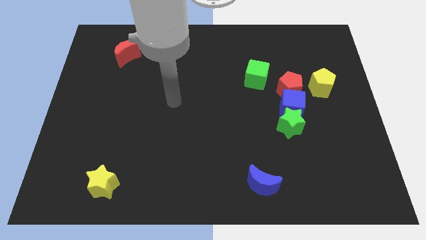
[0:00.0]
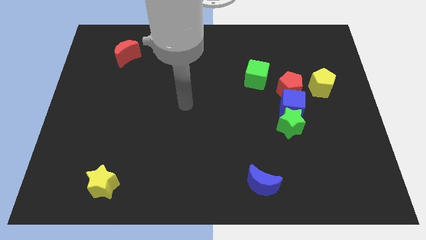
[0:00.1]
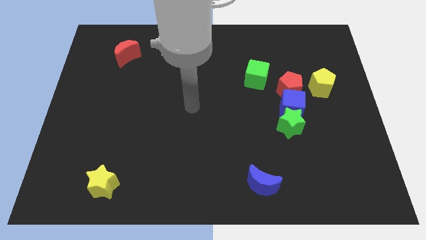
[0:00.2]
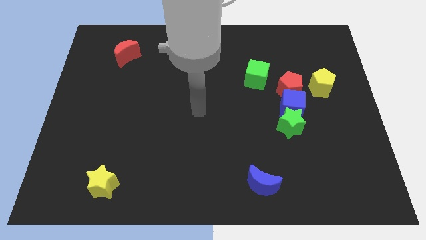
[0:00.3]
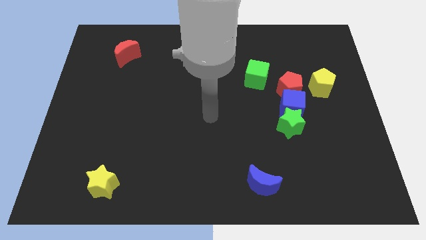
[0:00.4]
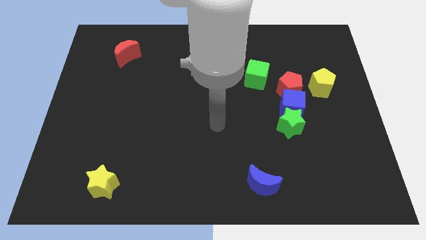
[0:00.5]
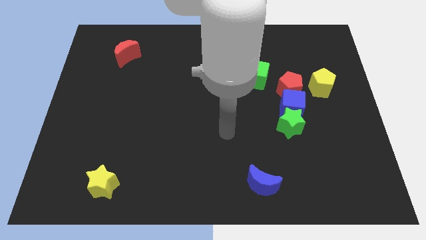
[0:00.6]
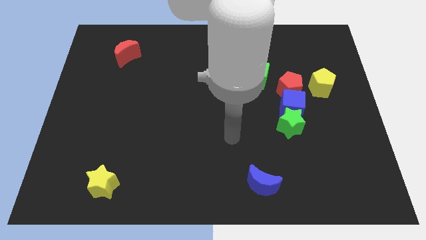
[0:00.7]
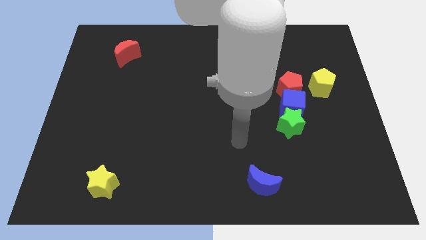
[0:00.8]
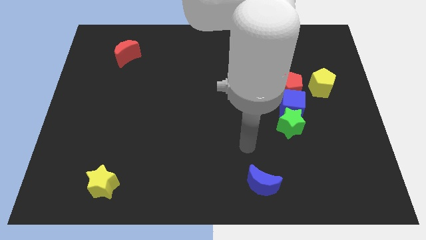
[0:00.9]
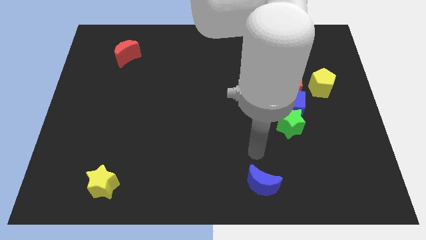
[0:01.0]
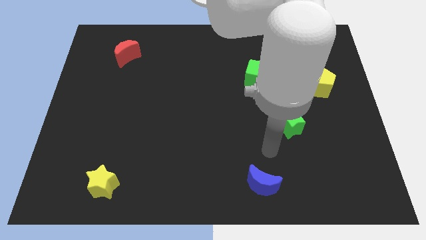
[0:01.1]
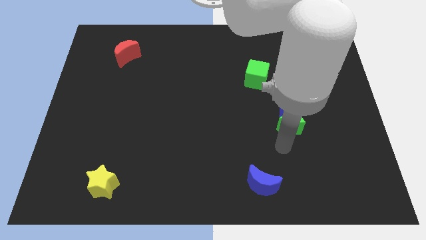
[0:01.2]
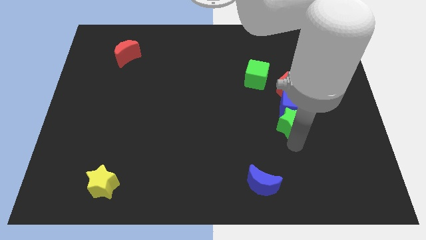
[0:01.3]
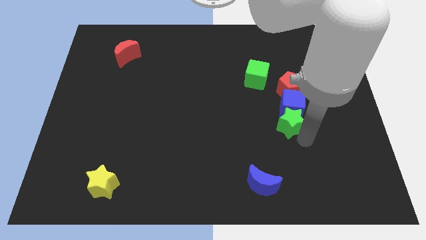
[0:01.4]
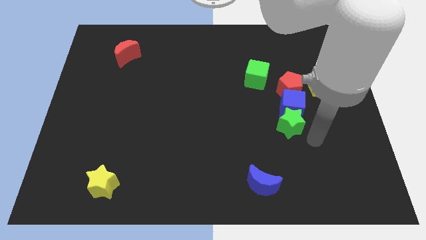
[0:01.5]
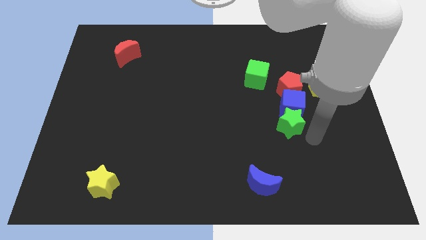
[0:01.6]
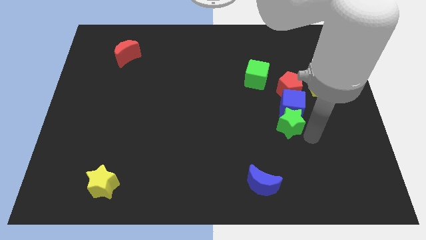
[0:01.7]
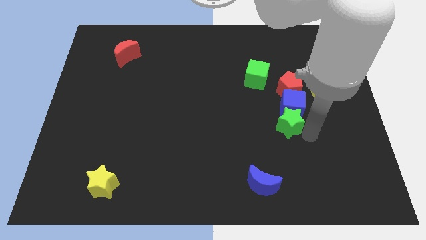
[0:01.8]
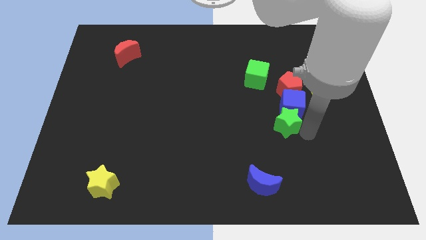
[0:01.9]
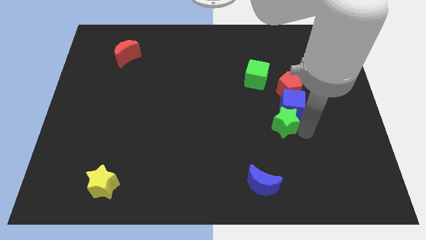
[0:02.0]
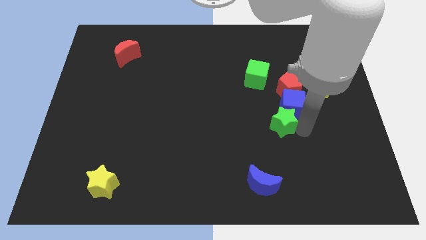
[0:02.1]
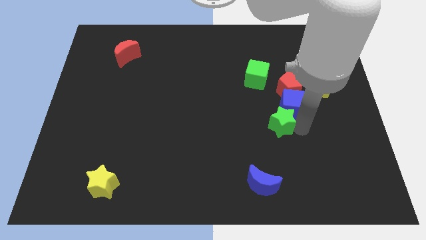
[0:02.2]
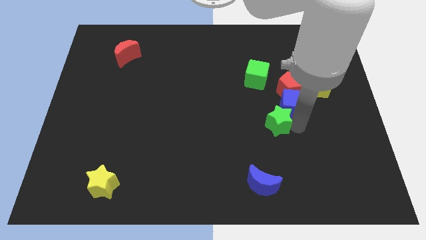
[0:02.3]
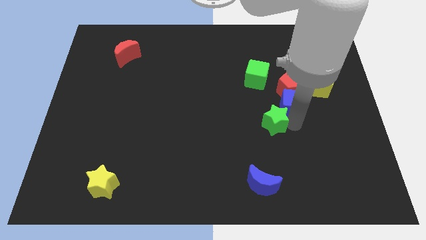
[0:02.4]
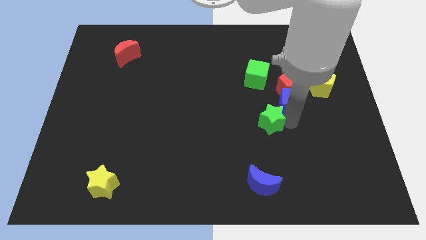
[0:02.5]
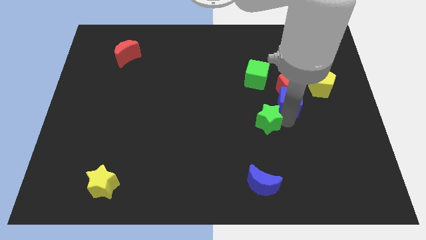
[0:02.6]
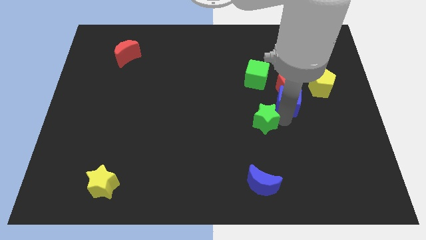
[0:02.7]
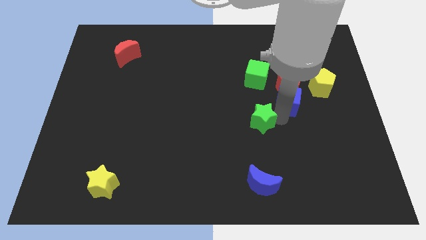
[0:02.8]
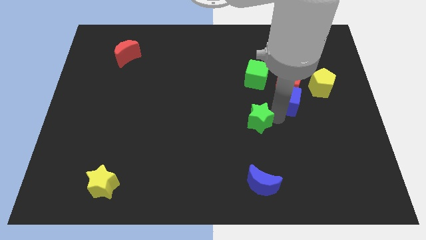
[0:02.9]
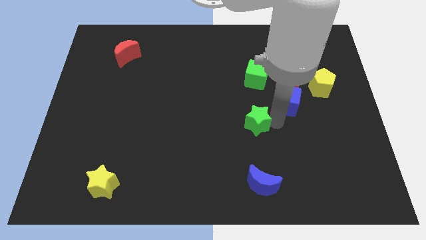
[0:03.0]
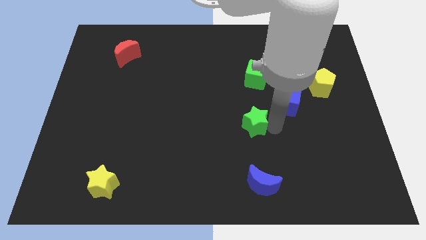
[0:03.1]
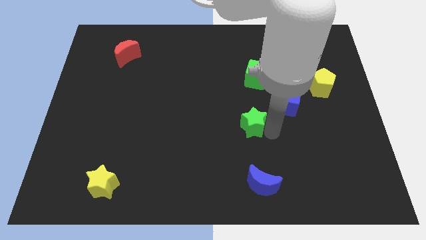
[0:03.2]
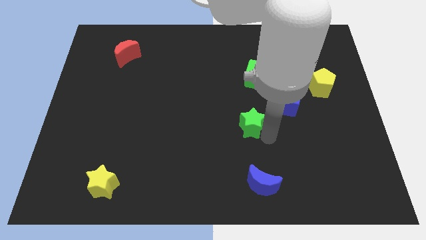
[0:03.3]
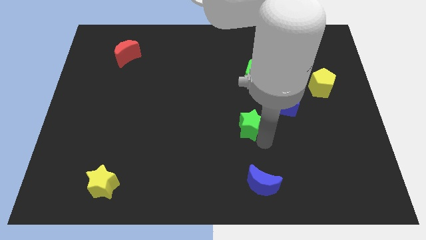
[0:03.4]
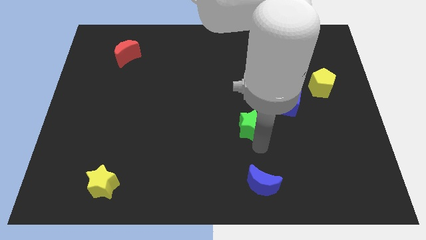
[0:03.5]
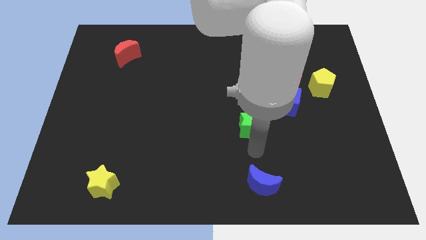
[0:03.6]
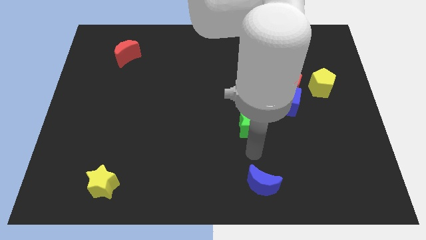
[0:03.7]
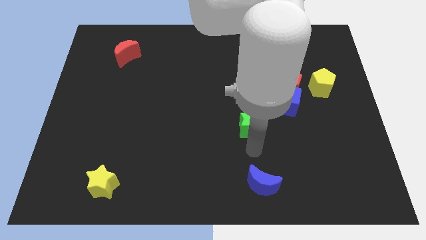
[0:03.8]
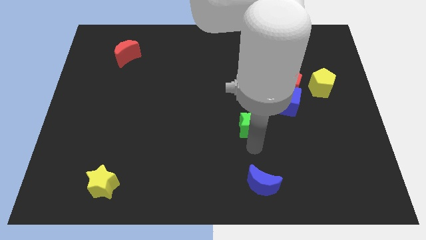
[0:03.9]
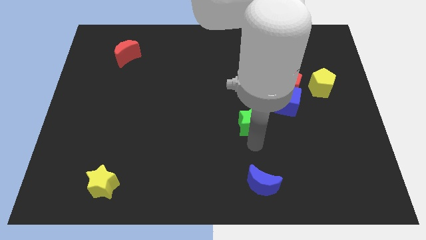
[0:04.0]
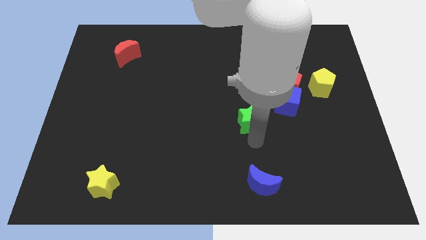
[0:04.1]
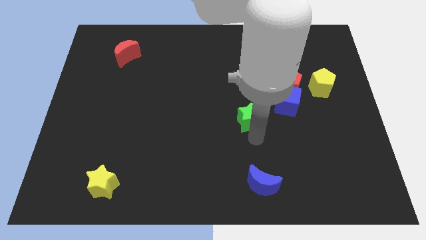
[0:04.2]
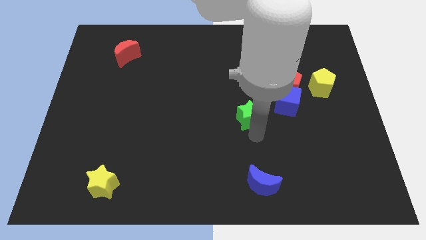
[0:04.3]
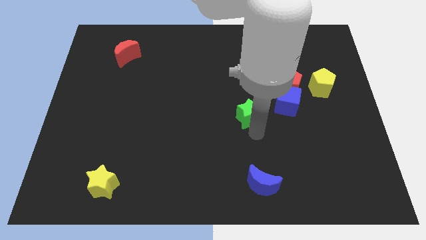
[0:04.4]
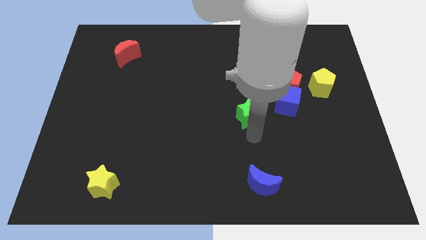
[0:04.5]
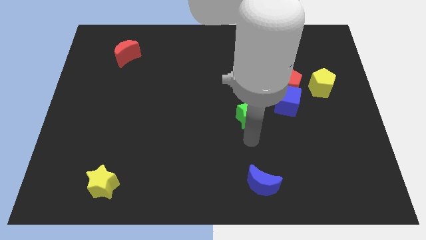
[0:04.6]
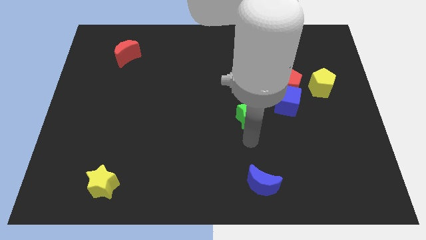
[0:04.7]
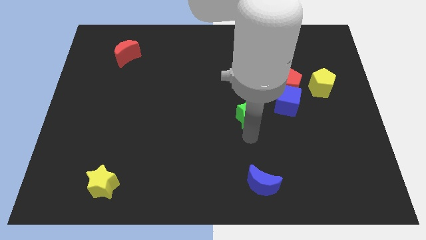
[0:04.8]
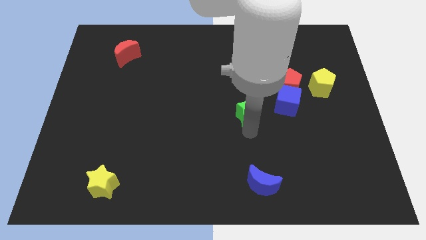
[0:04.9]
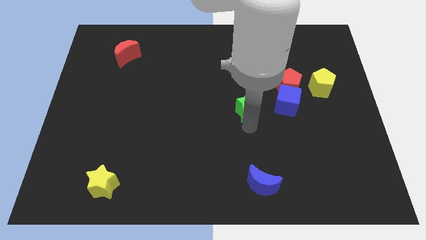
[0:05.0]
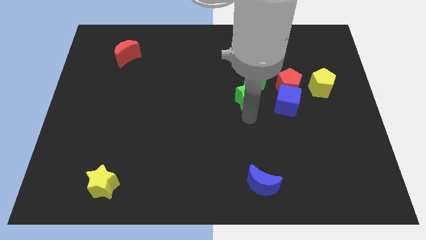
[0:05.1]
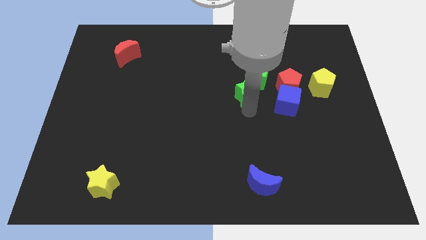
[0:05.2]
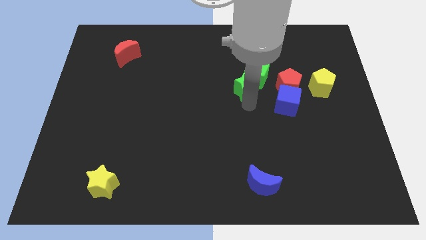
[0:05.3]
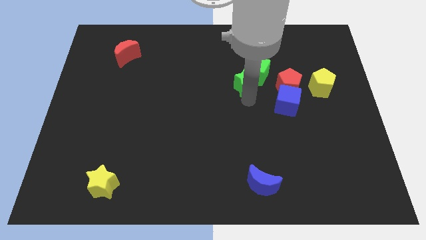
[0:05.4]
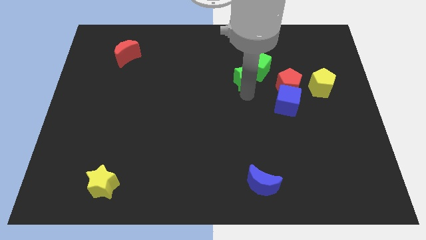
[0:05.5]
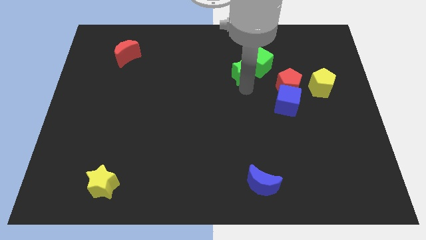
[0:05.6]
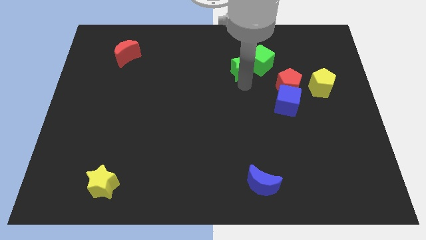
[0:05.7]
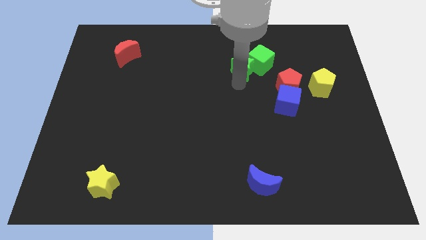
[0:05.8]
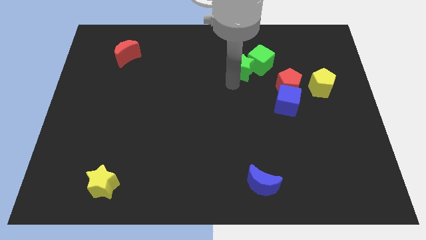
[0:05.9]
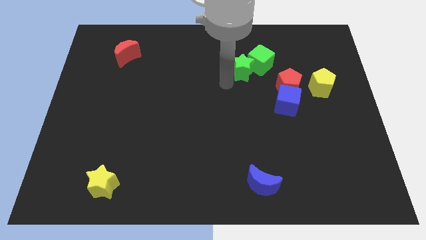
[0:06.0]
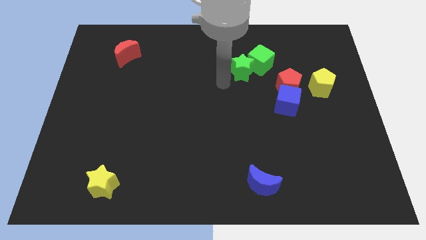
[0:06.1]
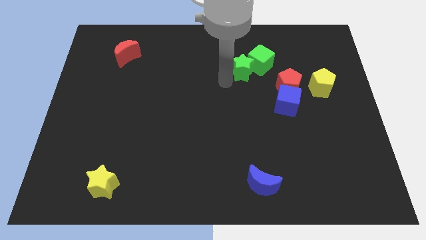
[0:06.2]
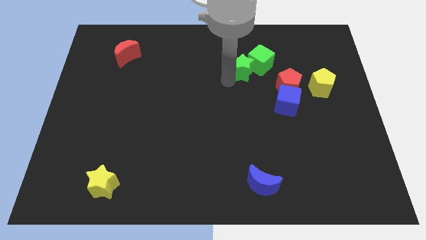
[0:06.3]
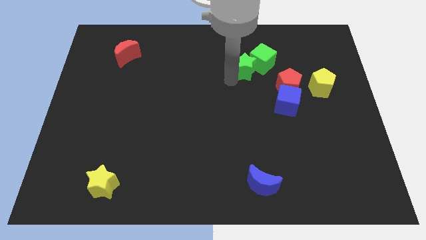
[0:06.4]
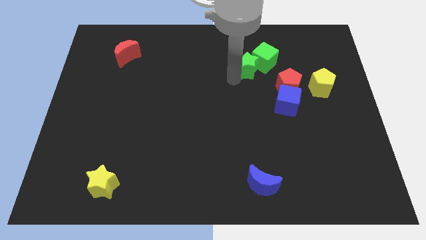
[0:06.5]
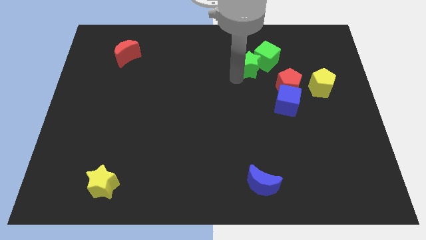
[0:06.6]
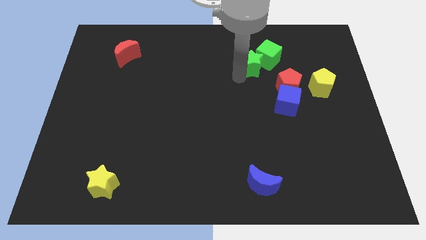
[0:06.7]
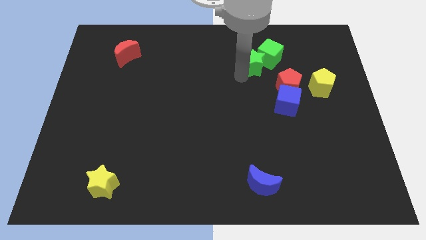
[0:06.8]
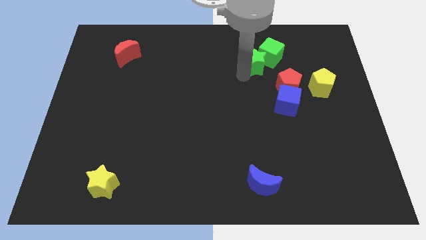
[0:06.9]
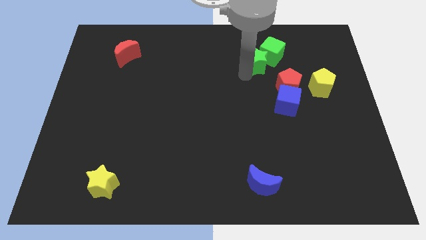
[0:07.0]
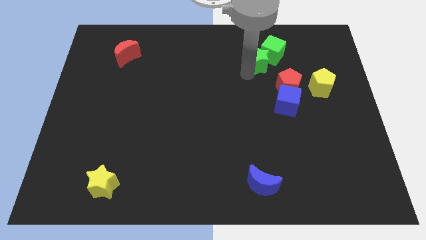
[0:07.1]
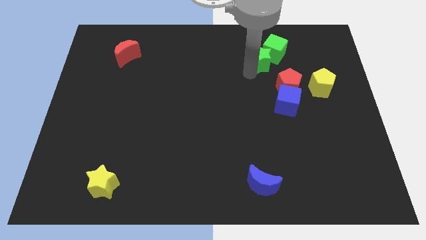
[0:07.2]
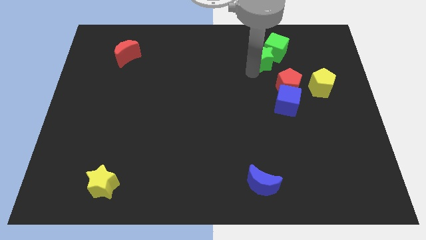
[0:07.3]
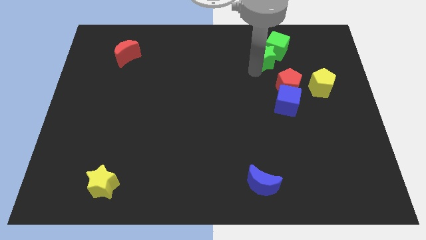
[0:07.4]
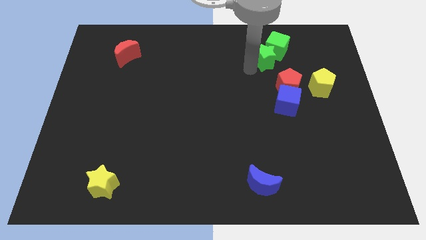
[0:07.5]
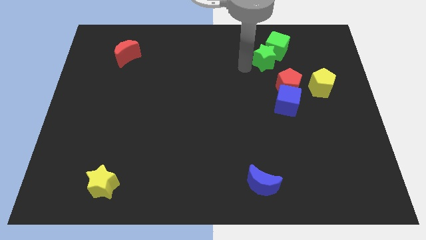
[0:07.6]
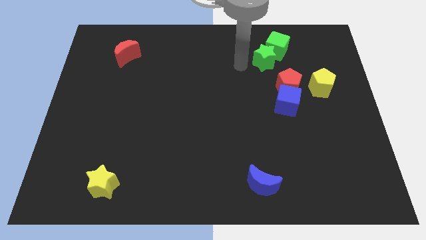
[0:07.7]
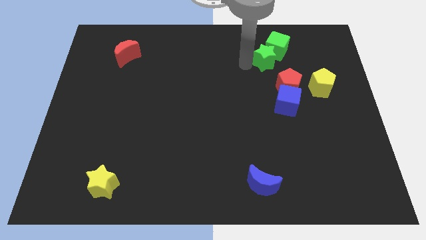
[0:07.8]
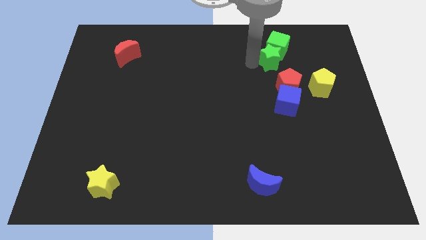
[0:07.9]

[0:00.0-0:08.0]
move the green star to the top side of the red pentagon
